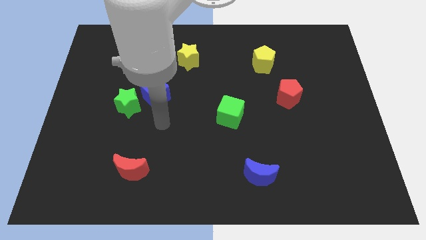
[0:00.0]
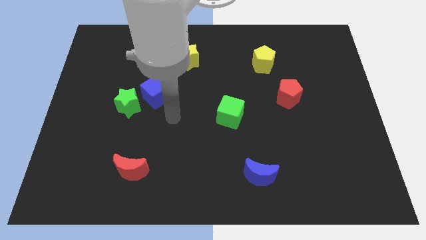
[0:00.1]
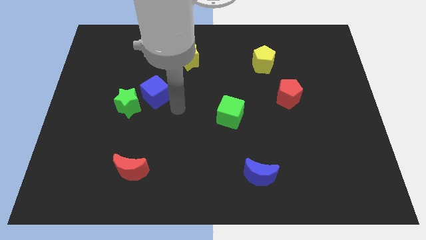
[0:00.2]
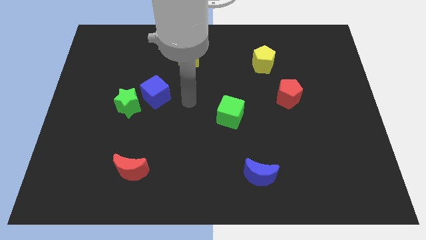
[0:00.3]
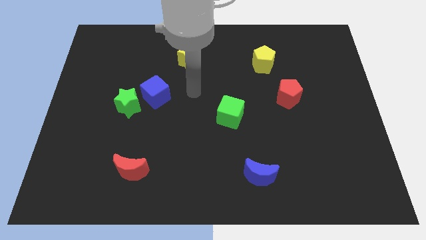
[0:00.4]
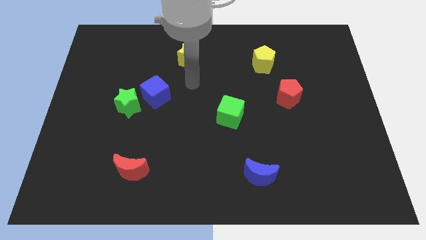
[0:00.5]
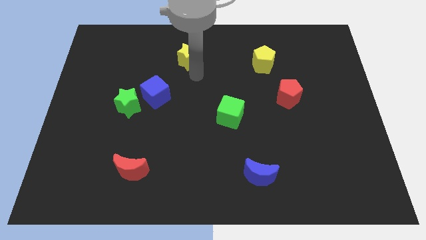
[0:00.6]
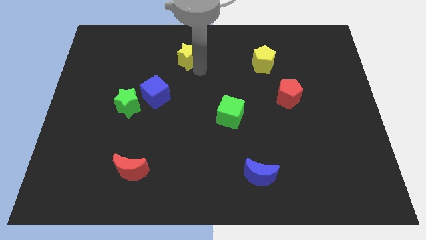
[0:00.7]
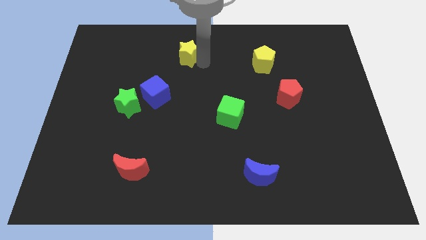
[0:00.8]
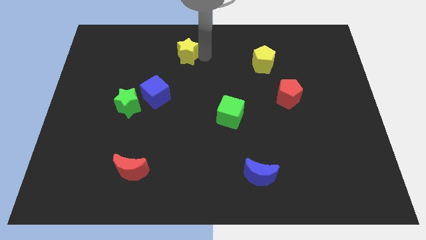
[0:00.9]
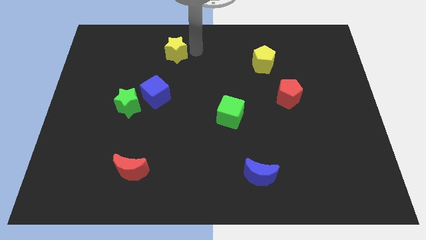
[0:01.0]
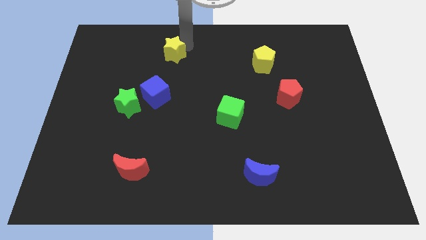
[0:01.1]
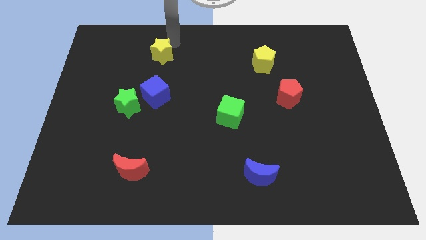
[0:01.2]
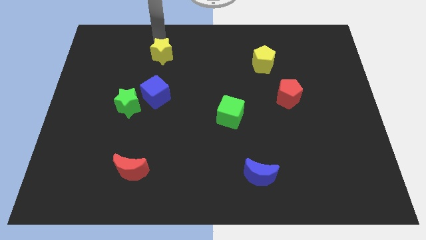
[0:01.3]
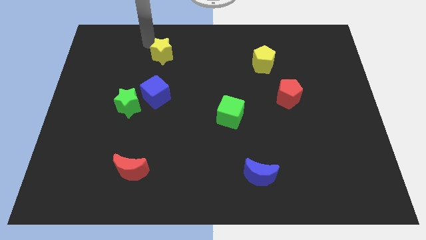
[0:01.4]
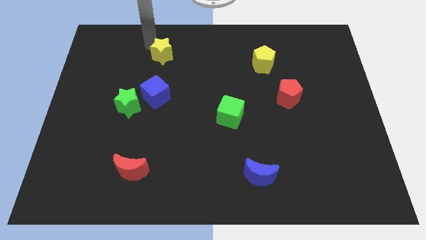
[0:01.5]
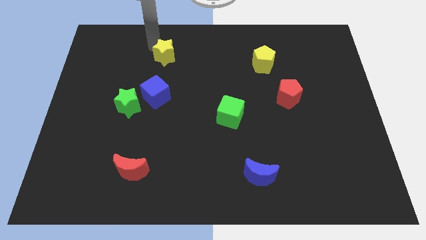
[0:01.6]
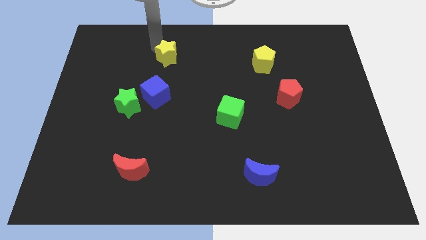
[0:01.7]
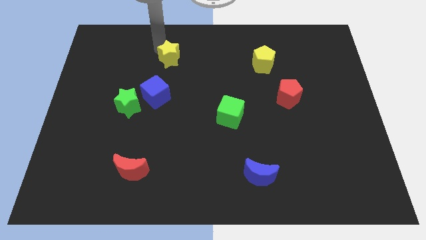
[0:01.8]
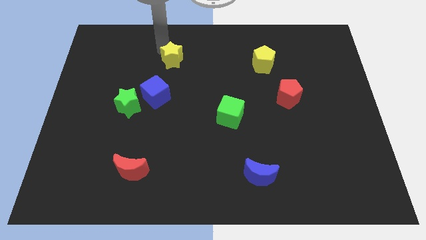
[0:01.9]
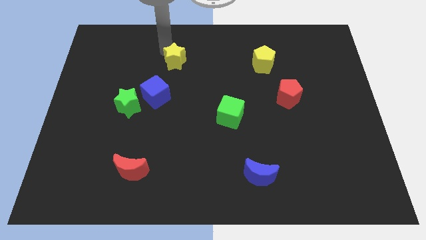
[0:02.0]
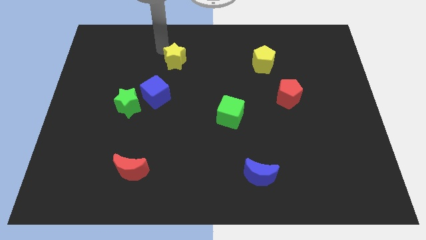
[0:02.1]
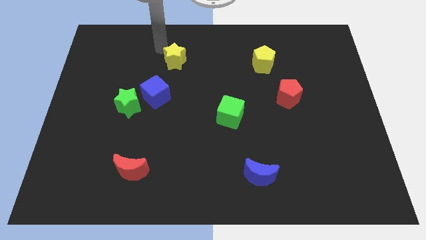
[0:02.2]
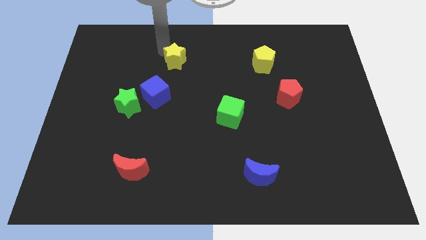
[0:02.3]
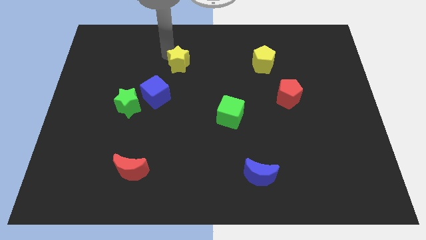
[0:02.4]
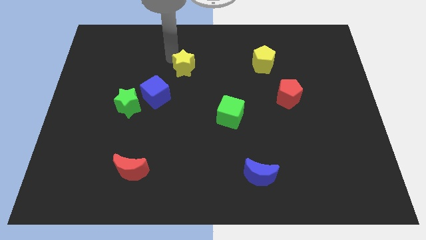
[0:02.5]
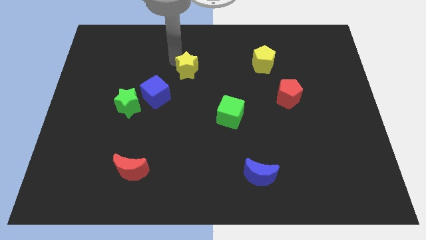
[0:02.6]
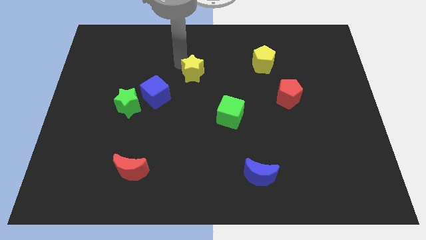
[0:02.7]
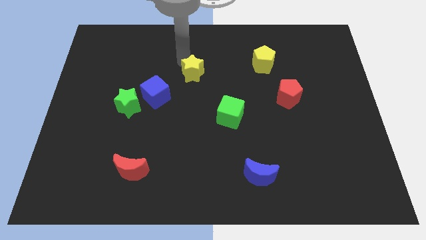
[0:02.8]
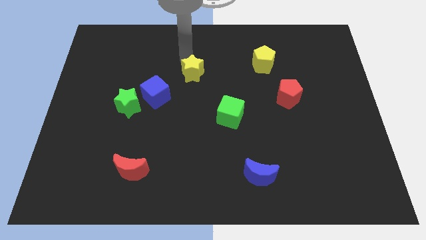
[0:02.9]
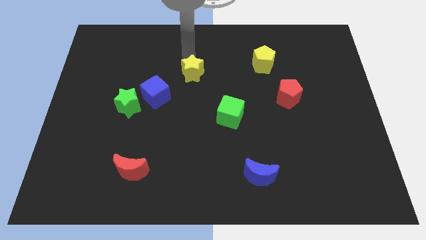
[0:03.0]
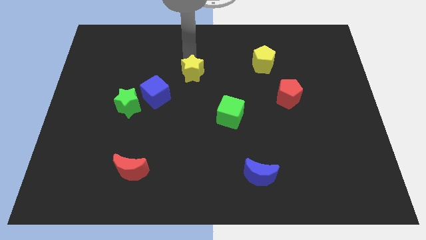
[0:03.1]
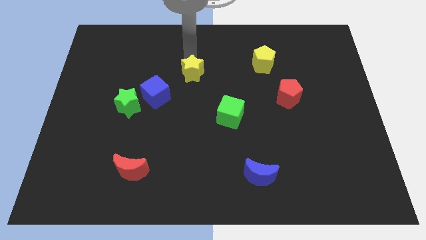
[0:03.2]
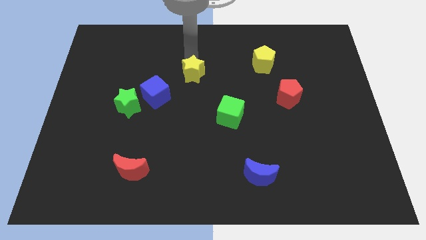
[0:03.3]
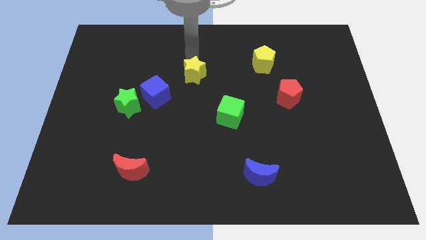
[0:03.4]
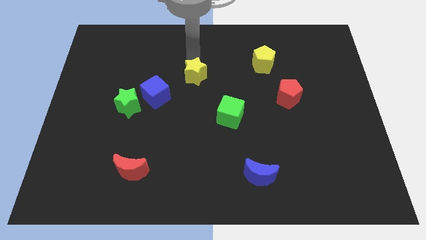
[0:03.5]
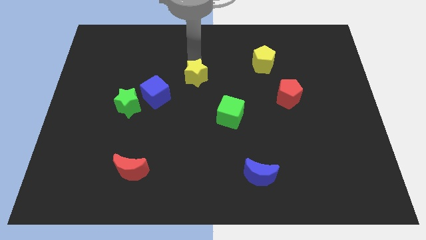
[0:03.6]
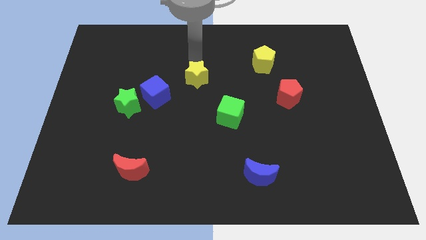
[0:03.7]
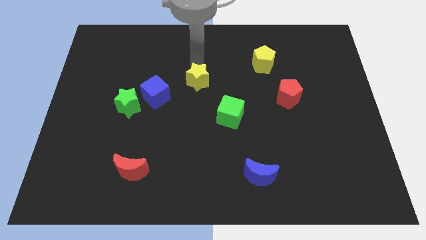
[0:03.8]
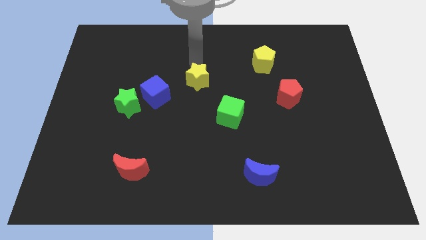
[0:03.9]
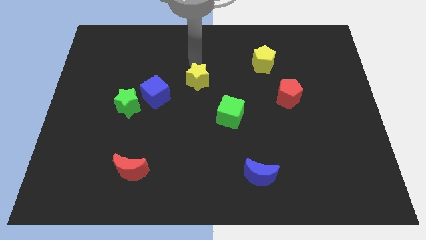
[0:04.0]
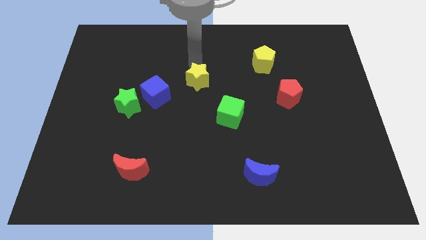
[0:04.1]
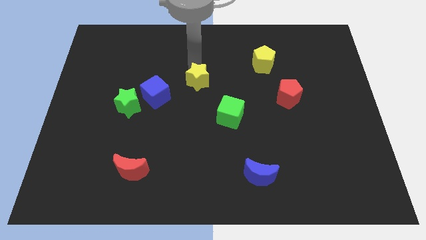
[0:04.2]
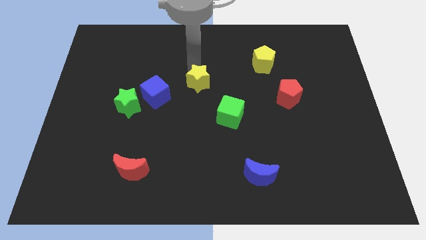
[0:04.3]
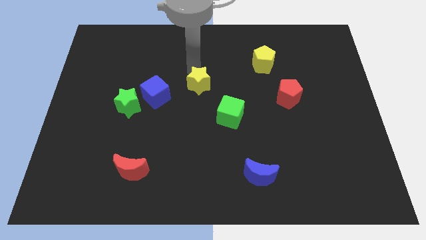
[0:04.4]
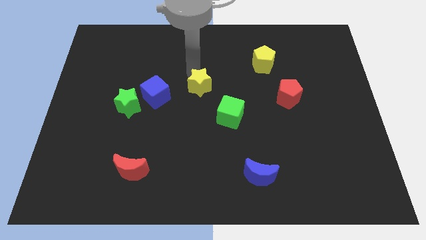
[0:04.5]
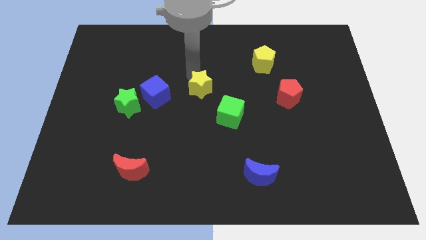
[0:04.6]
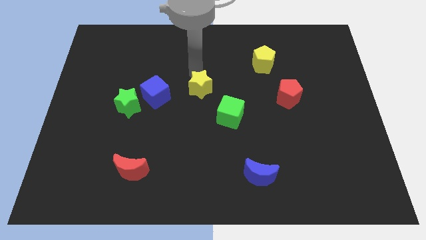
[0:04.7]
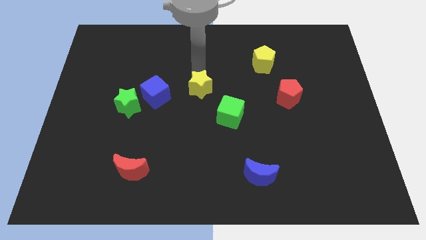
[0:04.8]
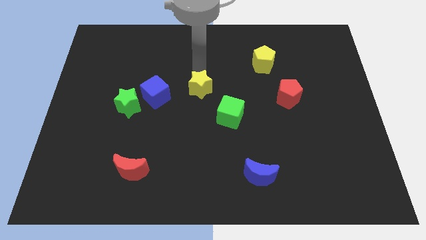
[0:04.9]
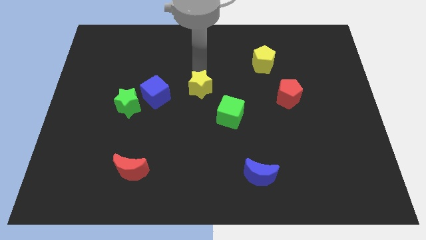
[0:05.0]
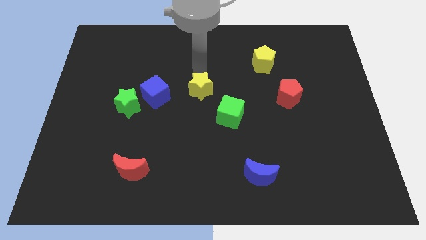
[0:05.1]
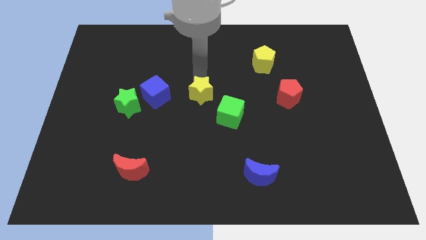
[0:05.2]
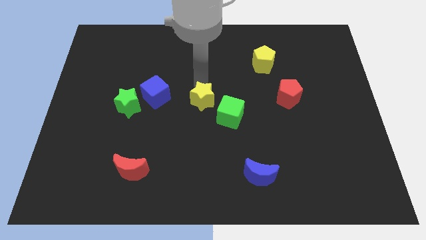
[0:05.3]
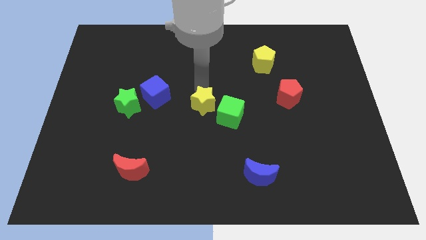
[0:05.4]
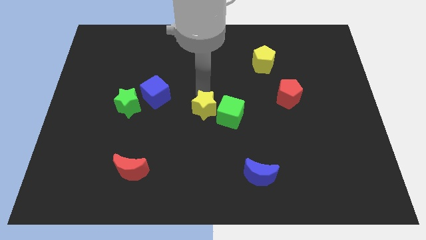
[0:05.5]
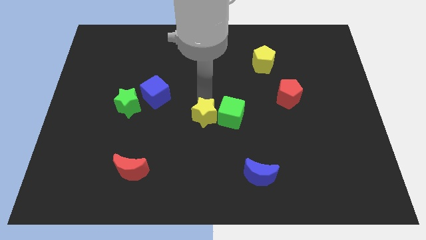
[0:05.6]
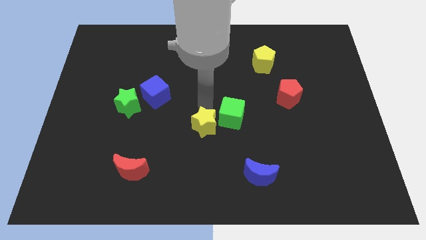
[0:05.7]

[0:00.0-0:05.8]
slide the yellow star down

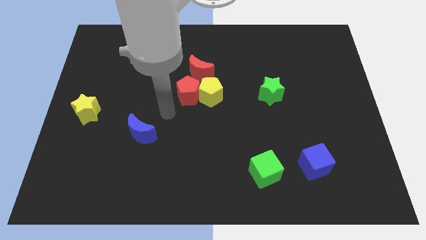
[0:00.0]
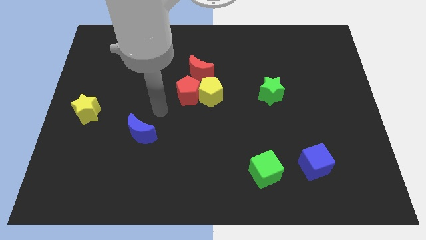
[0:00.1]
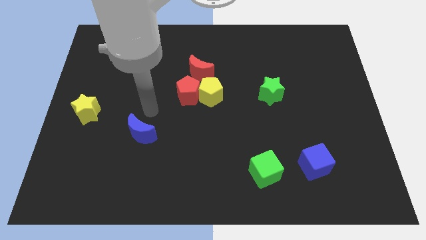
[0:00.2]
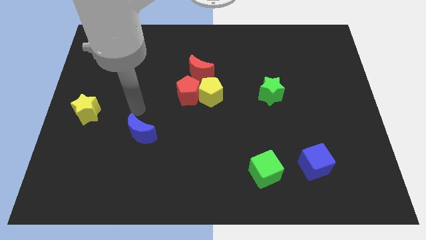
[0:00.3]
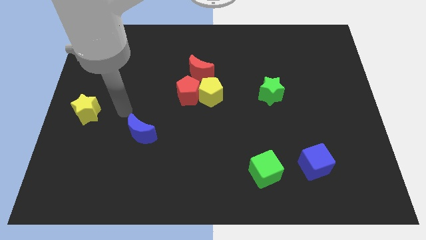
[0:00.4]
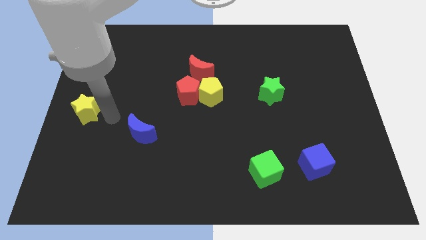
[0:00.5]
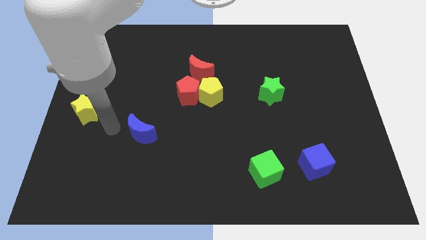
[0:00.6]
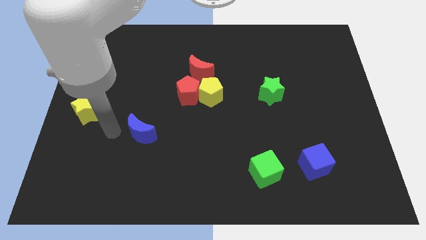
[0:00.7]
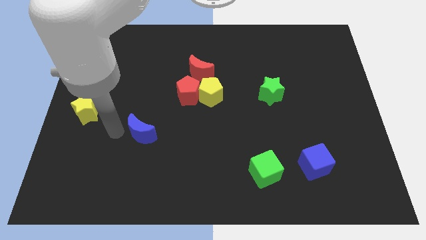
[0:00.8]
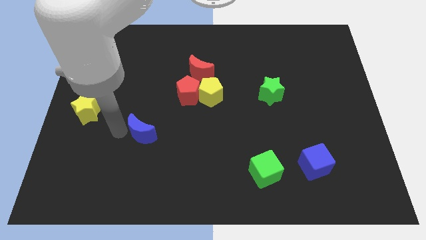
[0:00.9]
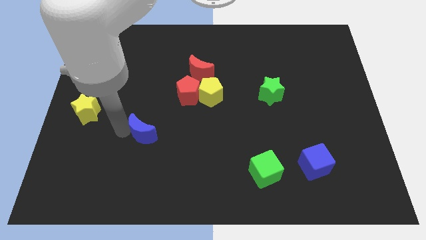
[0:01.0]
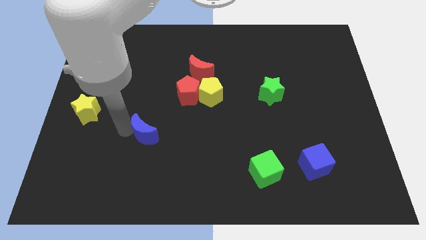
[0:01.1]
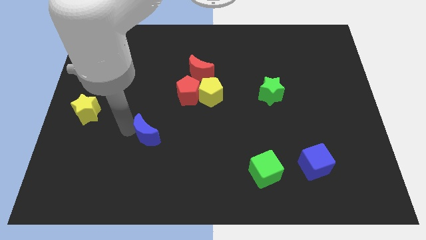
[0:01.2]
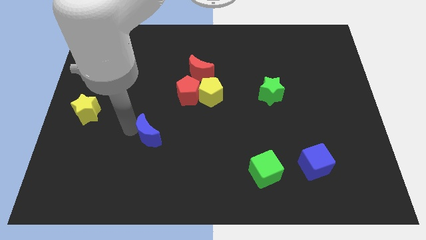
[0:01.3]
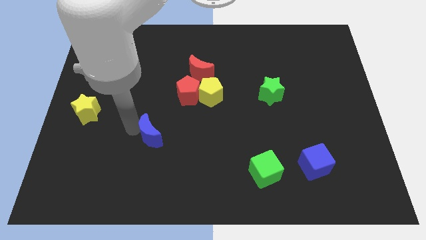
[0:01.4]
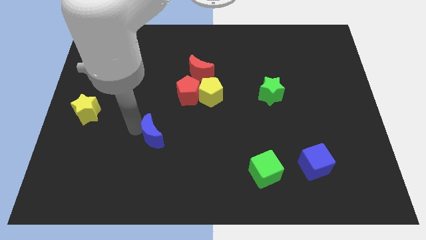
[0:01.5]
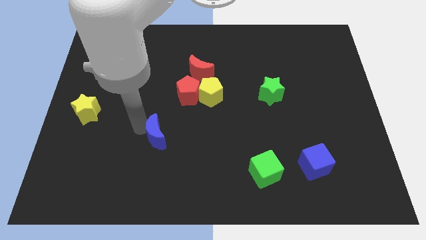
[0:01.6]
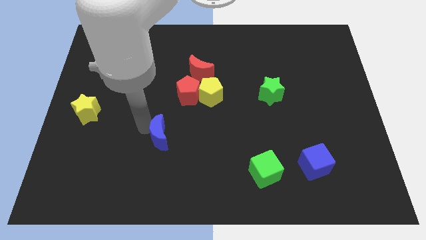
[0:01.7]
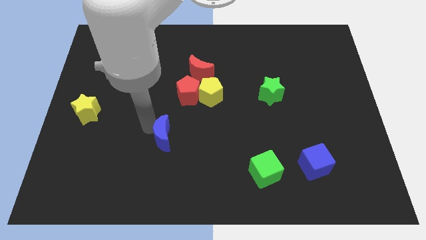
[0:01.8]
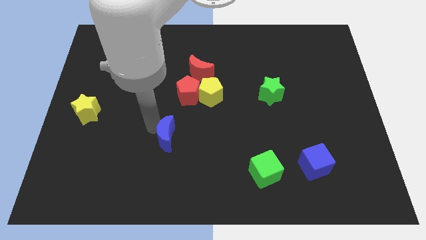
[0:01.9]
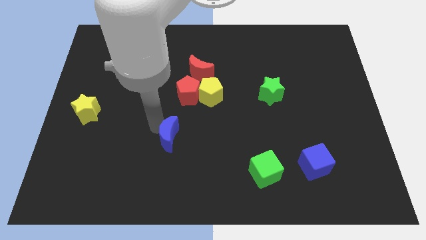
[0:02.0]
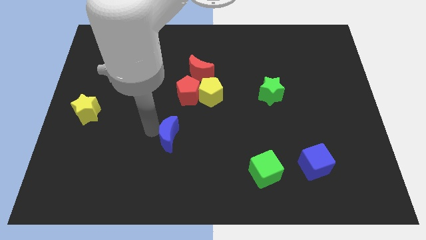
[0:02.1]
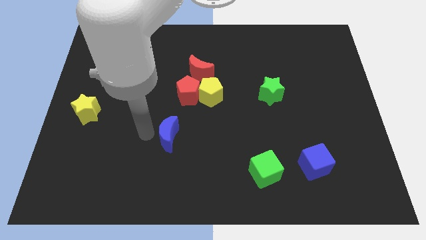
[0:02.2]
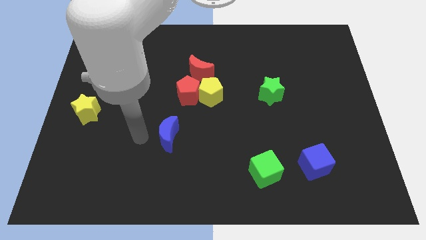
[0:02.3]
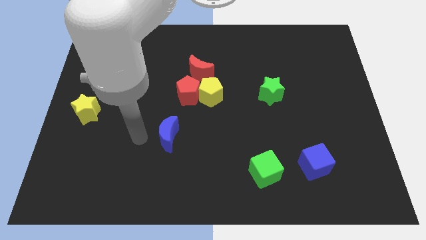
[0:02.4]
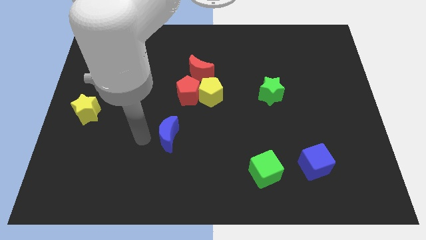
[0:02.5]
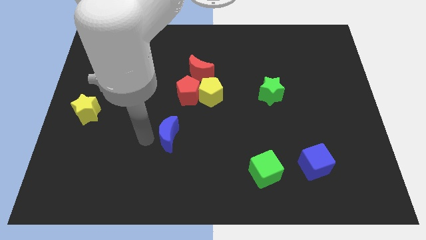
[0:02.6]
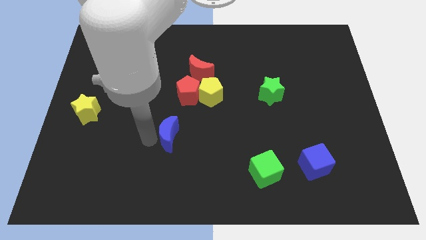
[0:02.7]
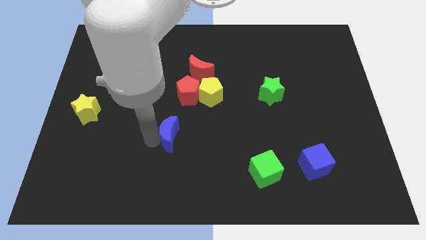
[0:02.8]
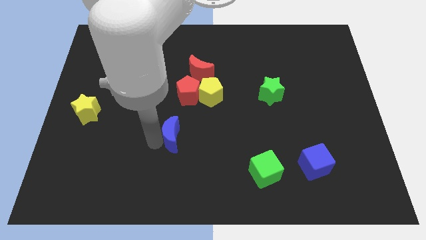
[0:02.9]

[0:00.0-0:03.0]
push the blue moon somewhat to the right
